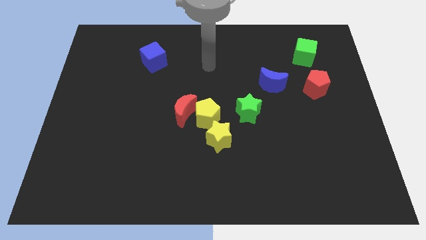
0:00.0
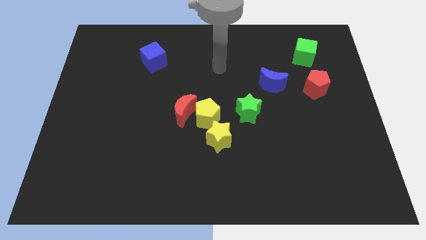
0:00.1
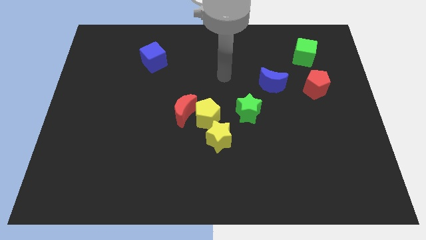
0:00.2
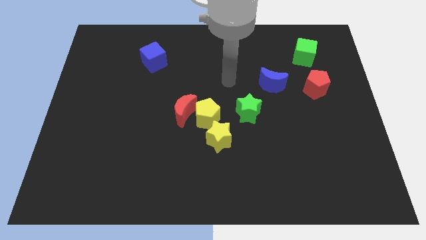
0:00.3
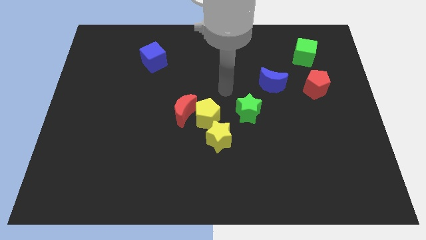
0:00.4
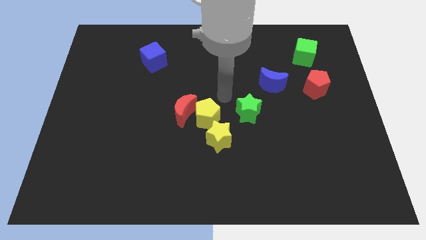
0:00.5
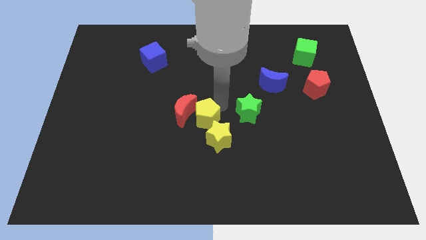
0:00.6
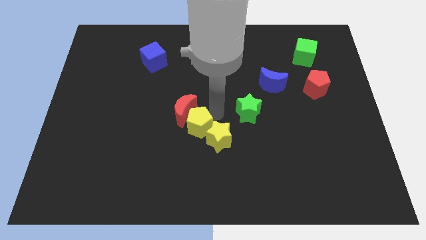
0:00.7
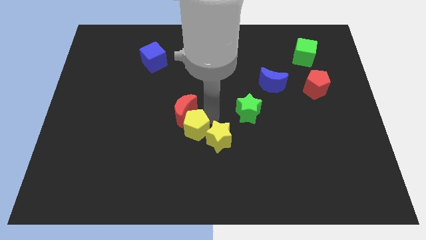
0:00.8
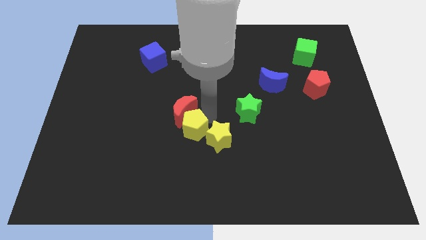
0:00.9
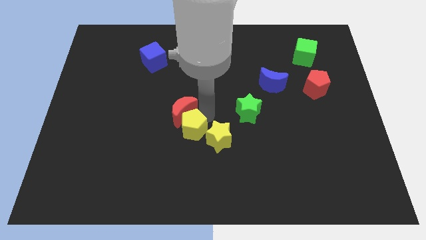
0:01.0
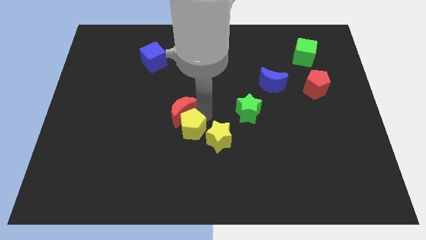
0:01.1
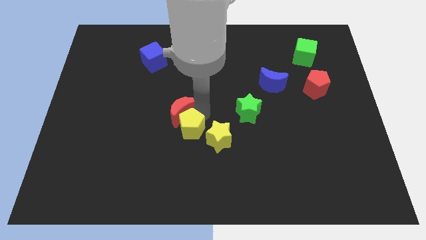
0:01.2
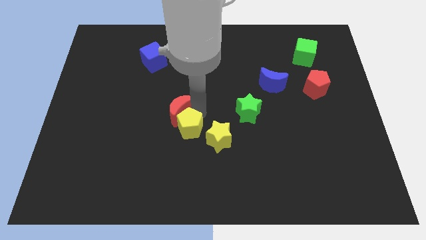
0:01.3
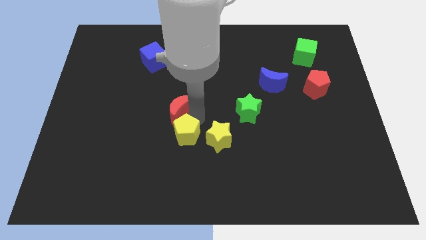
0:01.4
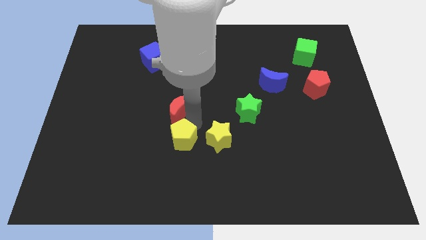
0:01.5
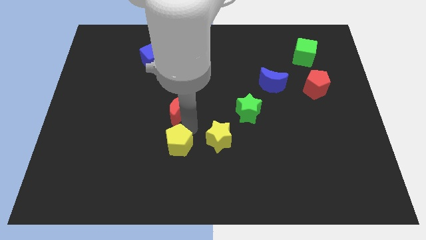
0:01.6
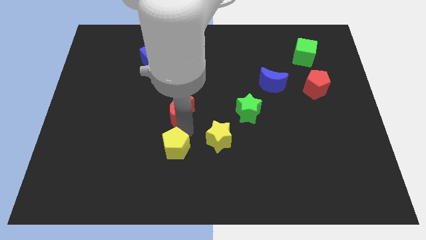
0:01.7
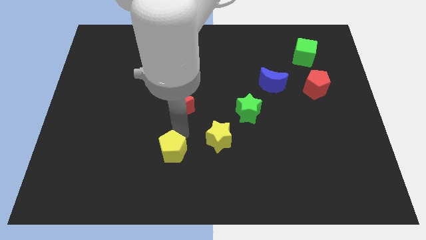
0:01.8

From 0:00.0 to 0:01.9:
pull the red moon apart from the yellow pentagon

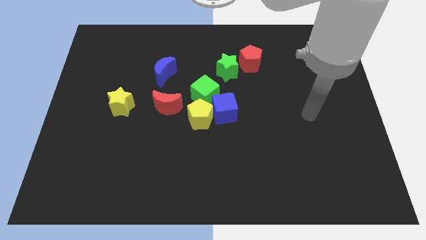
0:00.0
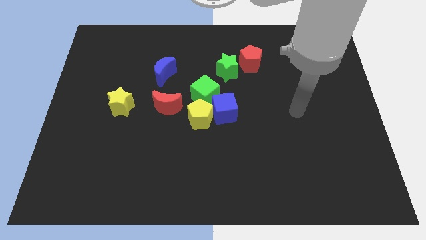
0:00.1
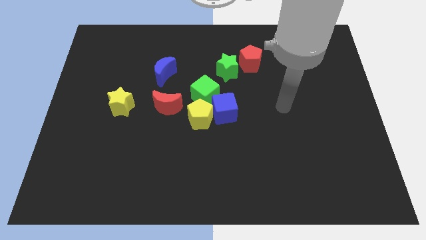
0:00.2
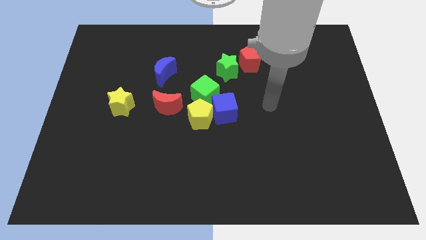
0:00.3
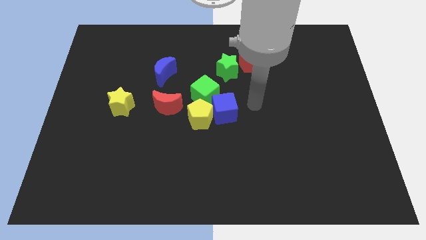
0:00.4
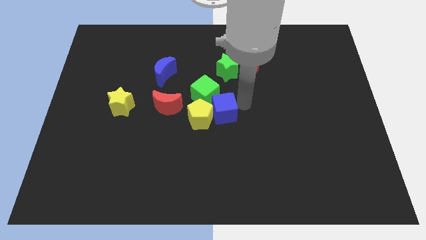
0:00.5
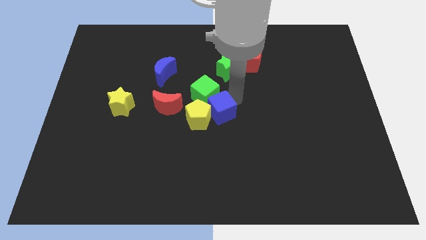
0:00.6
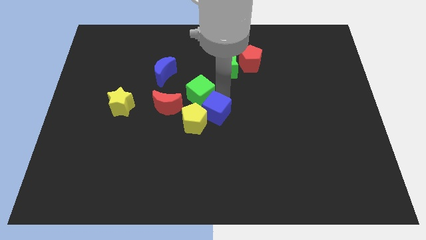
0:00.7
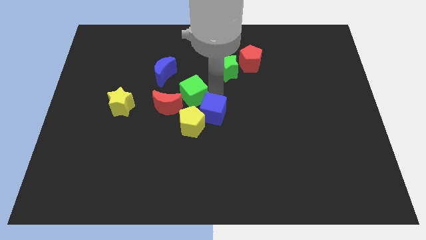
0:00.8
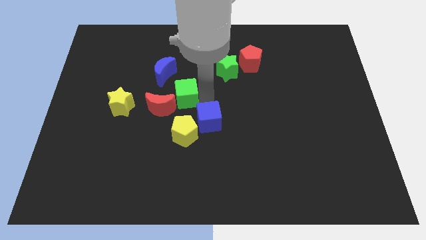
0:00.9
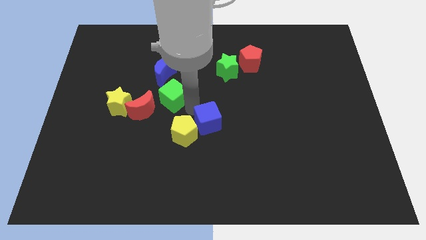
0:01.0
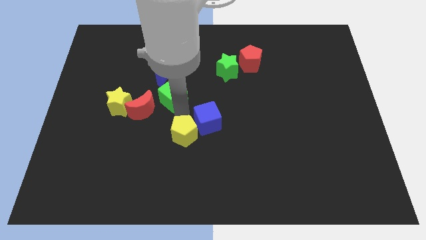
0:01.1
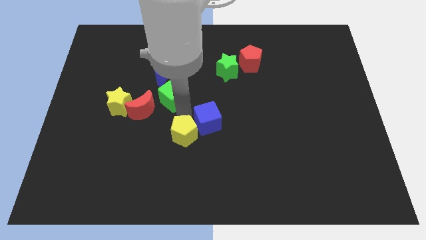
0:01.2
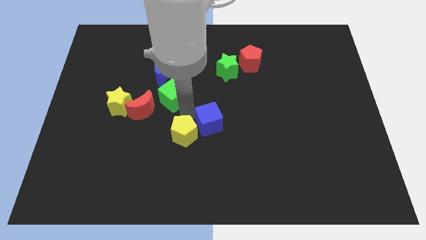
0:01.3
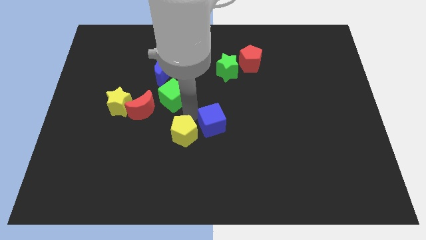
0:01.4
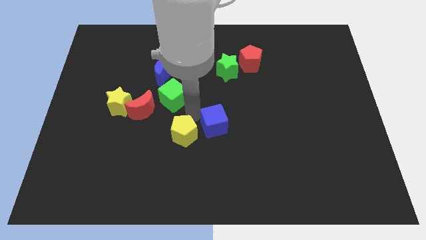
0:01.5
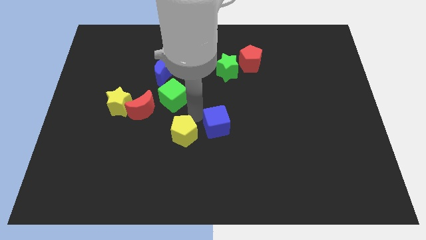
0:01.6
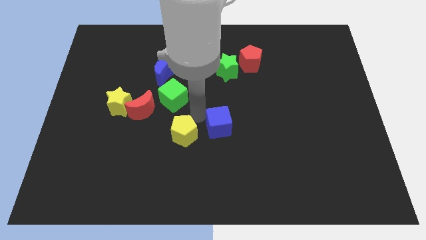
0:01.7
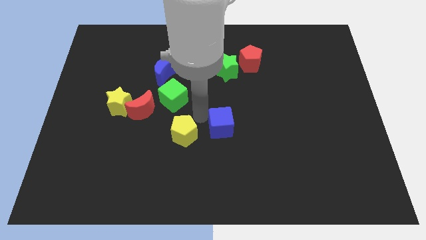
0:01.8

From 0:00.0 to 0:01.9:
separate the blue cube from the yellow pentagon and green cube

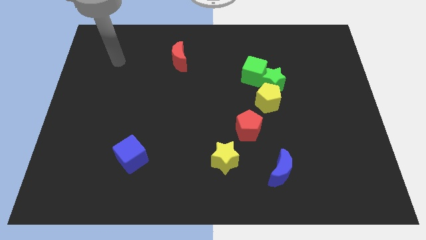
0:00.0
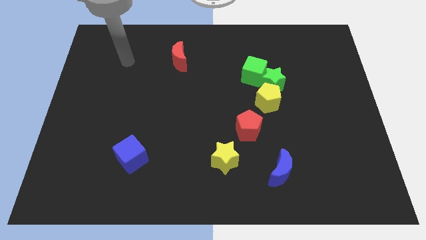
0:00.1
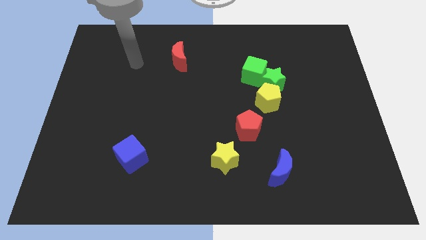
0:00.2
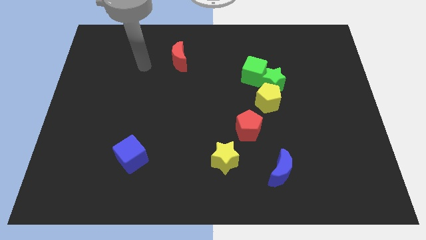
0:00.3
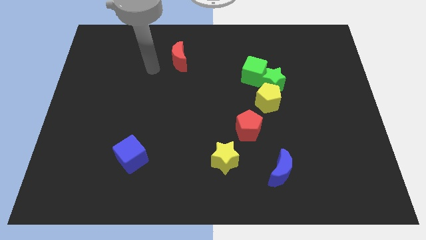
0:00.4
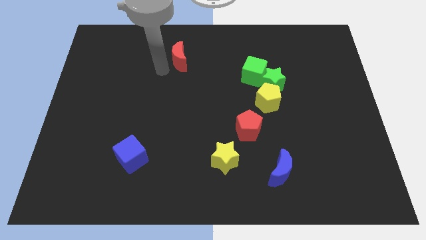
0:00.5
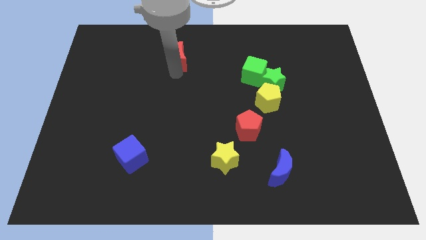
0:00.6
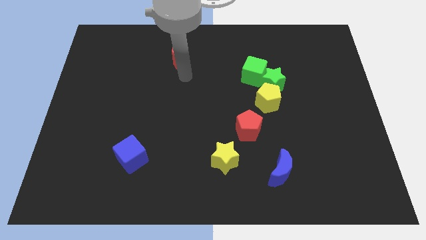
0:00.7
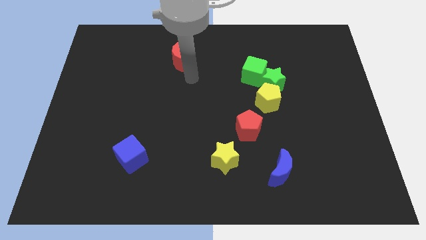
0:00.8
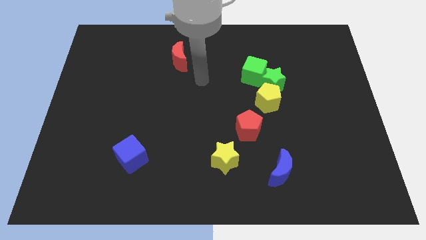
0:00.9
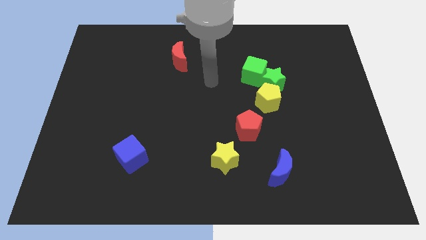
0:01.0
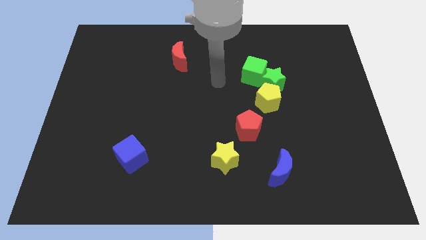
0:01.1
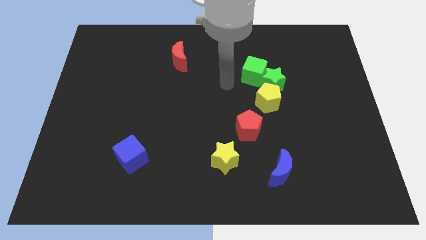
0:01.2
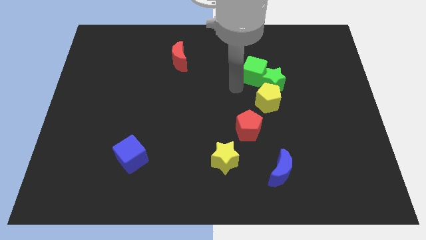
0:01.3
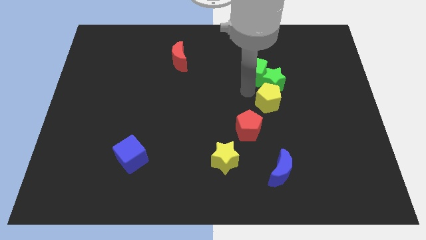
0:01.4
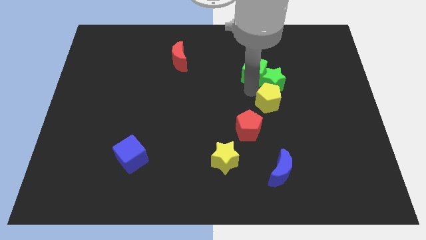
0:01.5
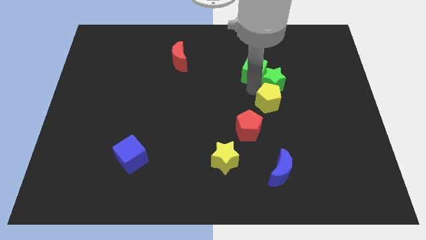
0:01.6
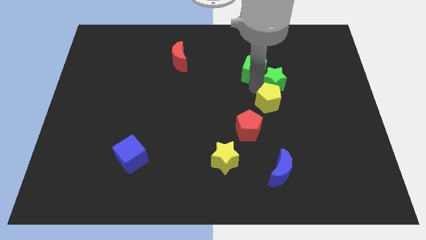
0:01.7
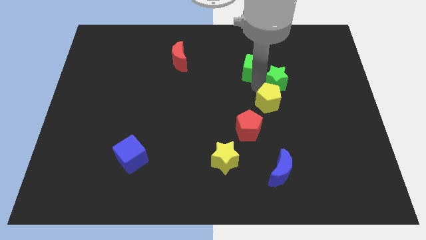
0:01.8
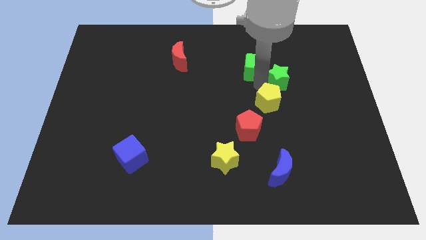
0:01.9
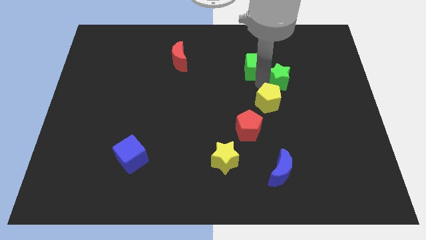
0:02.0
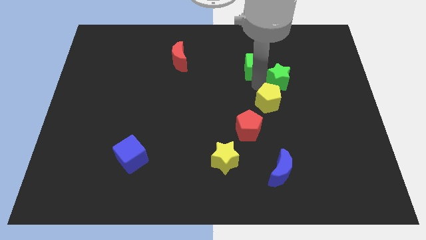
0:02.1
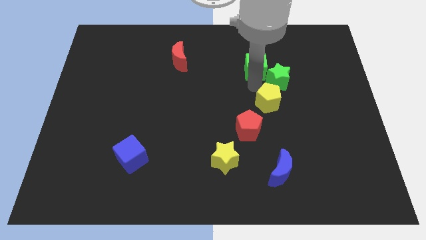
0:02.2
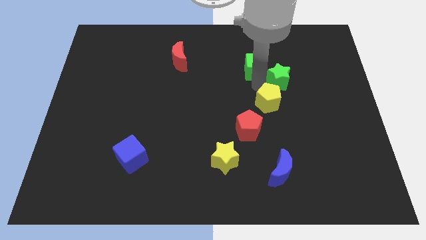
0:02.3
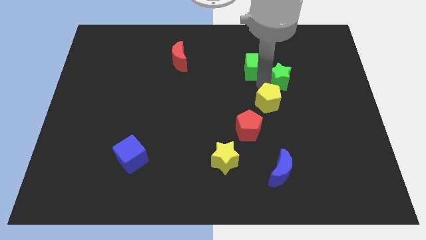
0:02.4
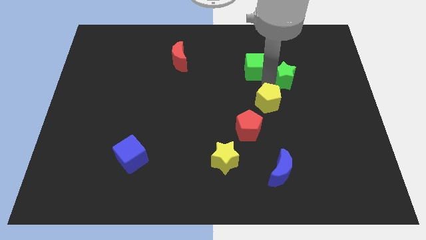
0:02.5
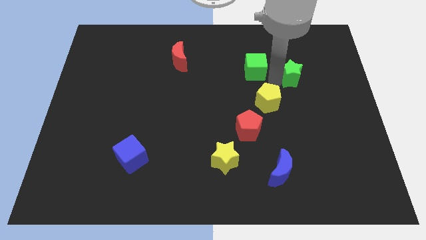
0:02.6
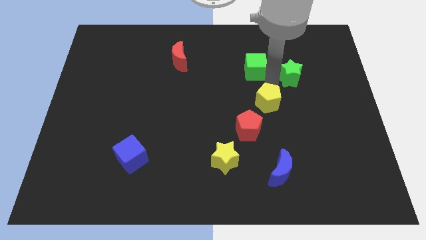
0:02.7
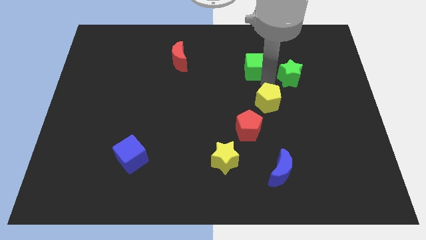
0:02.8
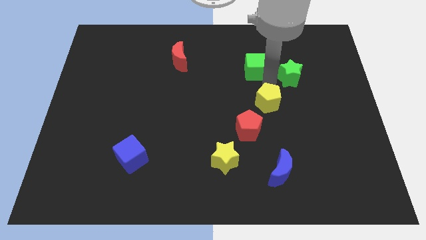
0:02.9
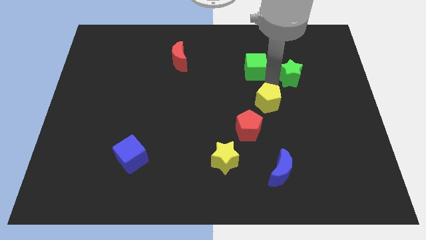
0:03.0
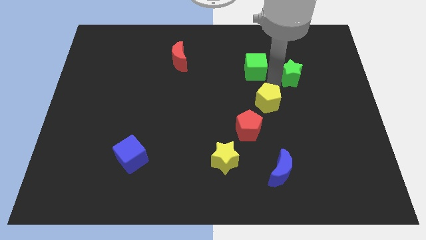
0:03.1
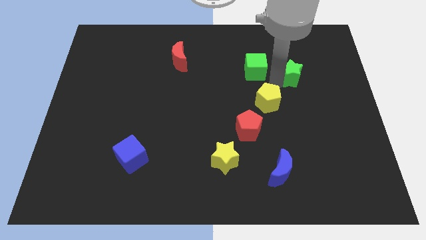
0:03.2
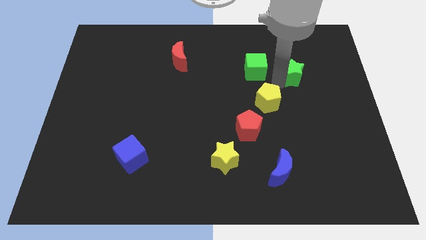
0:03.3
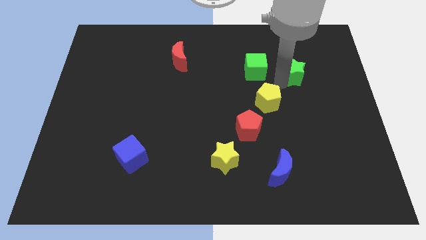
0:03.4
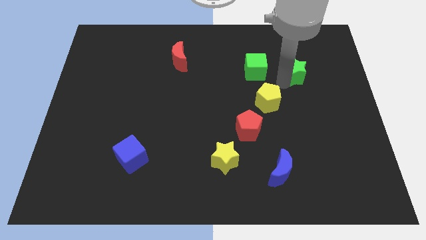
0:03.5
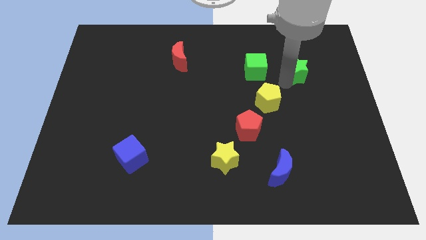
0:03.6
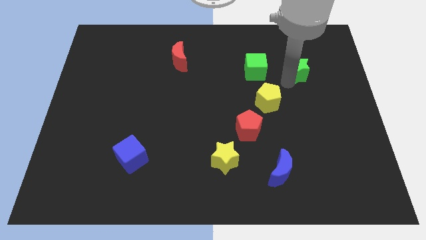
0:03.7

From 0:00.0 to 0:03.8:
pull the green star apart from the green cube and yellow pentagon

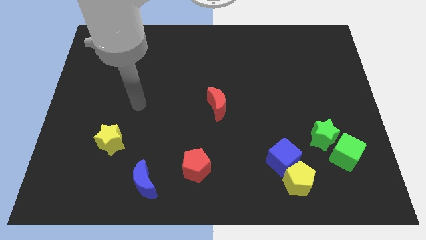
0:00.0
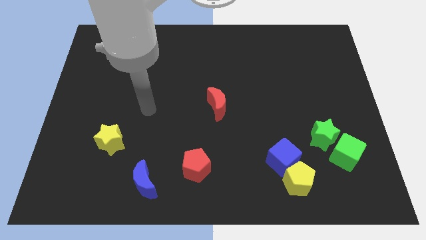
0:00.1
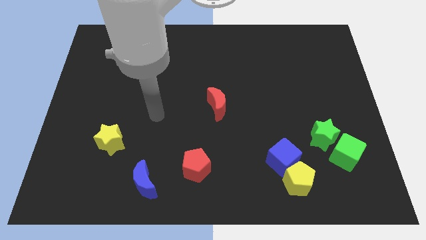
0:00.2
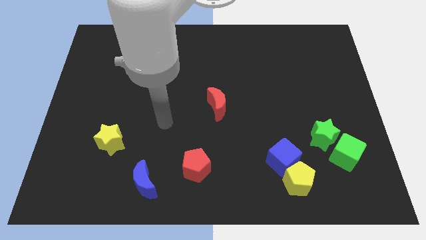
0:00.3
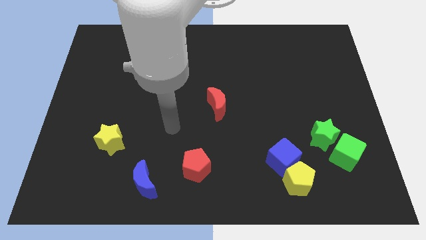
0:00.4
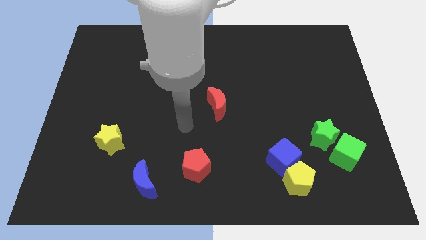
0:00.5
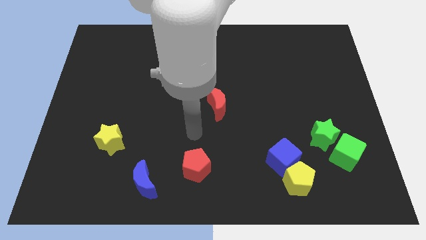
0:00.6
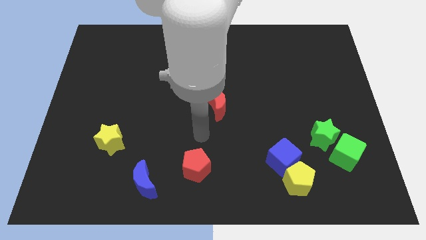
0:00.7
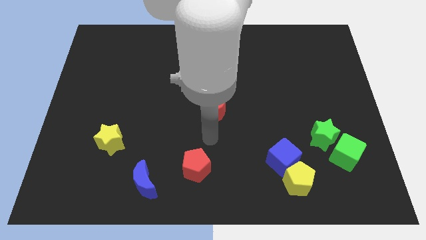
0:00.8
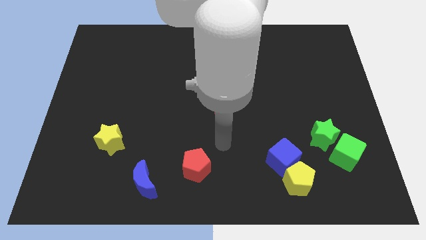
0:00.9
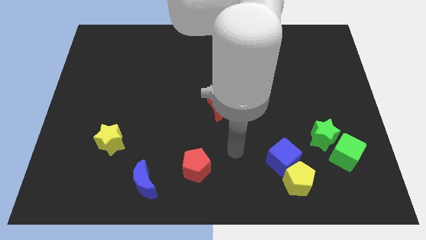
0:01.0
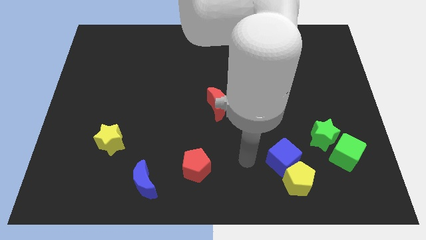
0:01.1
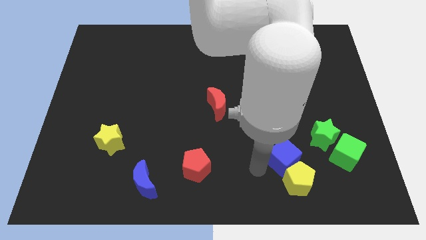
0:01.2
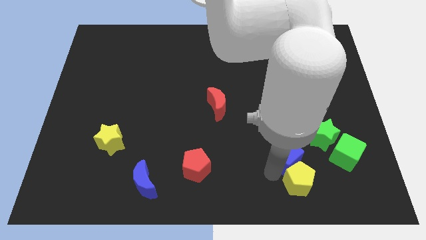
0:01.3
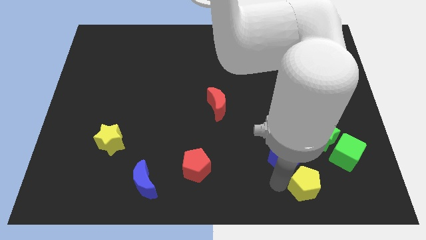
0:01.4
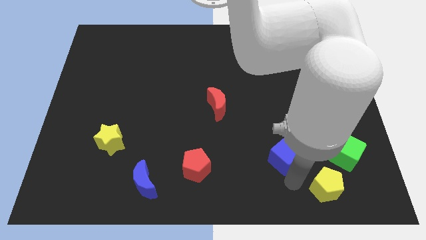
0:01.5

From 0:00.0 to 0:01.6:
move the blue cube away from the yellow pentagon

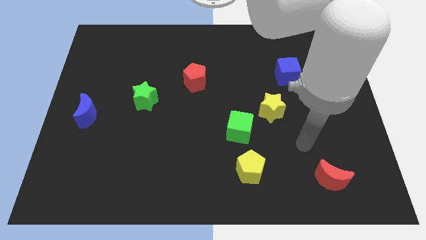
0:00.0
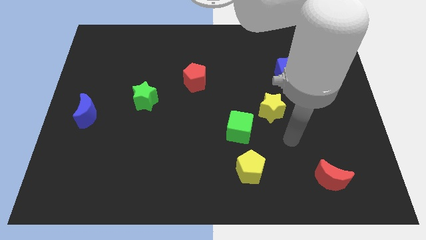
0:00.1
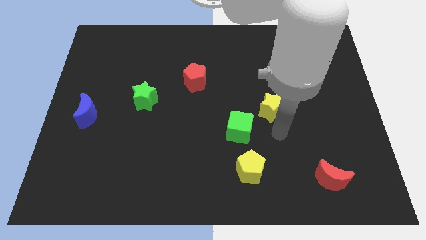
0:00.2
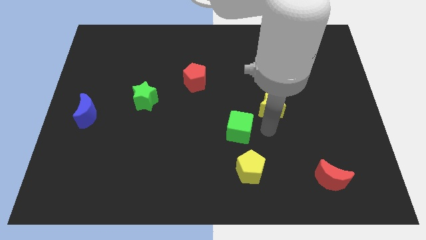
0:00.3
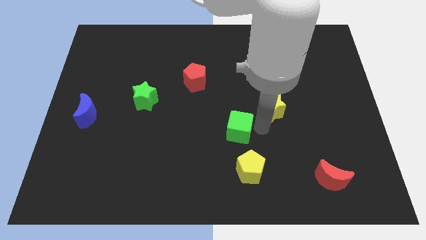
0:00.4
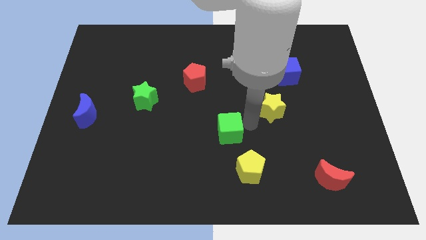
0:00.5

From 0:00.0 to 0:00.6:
move the yellow star away from the green cube
